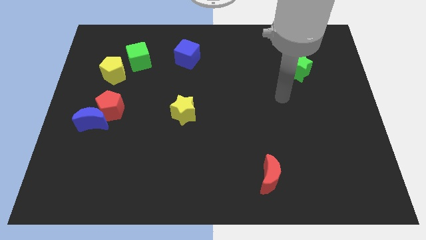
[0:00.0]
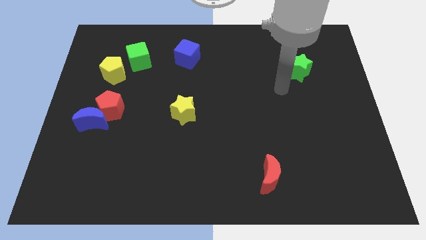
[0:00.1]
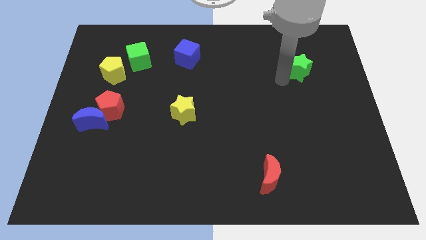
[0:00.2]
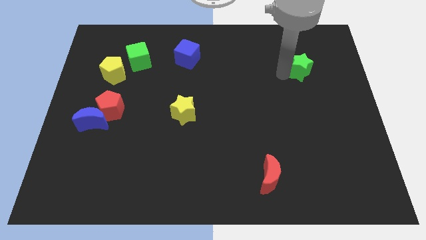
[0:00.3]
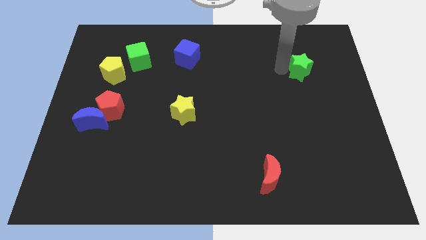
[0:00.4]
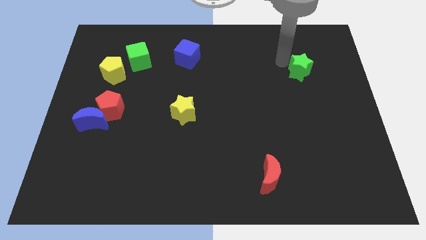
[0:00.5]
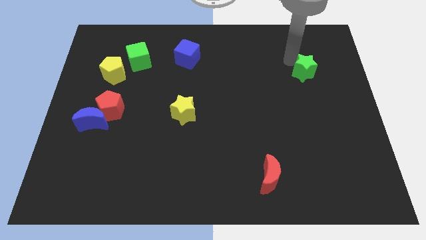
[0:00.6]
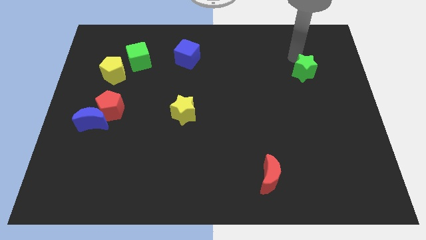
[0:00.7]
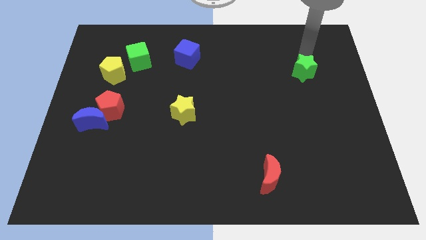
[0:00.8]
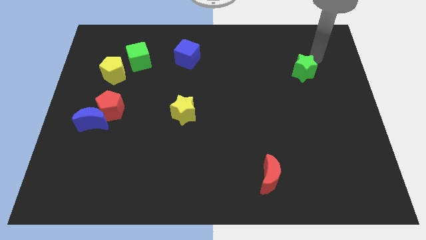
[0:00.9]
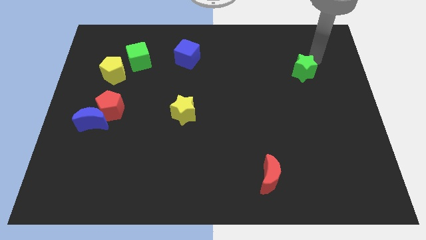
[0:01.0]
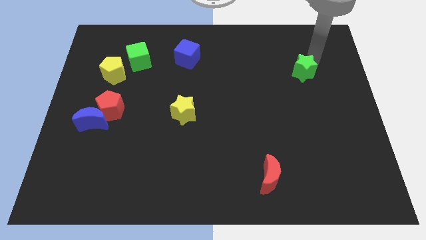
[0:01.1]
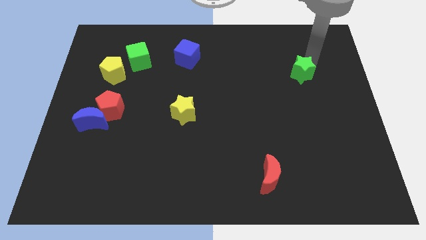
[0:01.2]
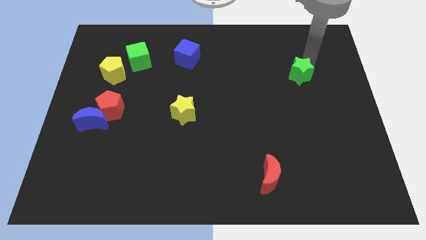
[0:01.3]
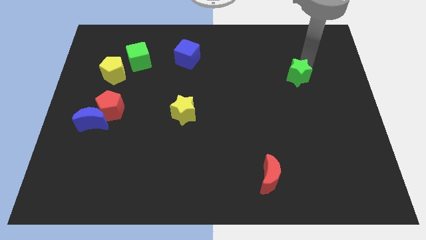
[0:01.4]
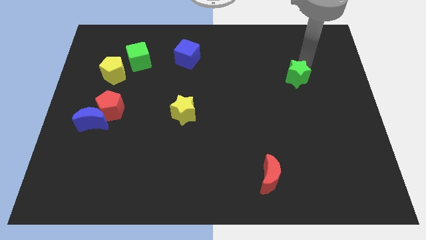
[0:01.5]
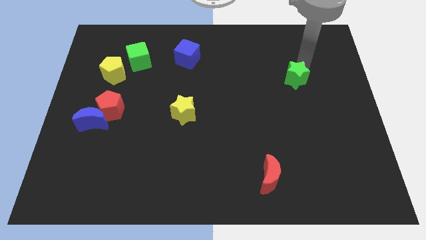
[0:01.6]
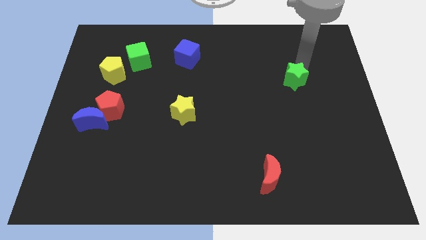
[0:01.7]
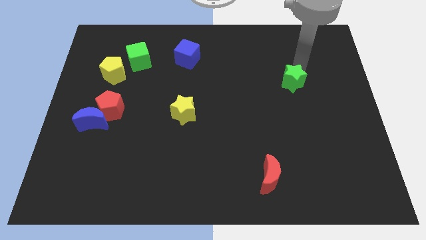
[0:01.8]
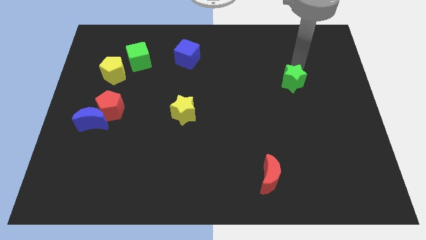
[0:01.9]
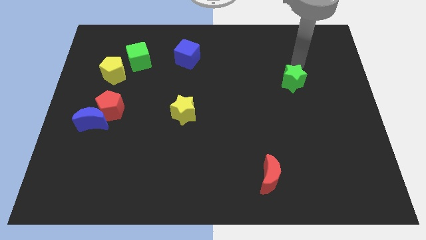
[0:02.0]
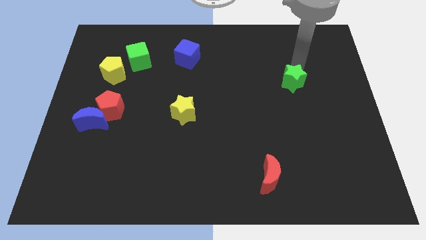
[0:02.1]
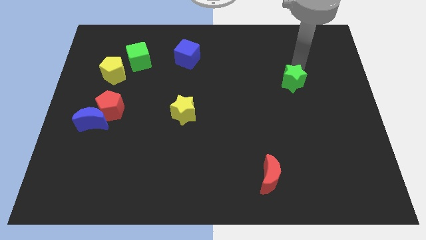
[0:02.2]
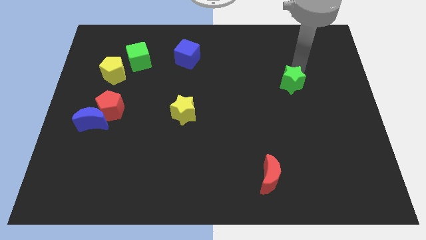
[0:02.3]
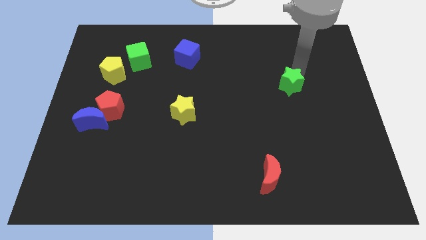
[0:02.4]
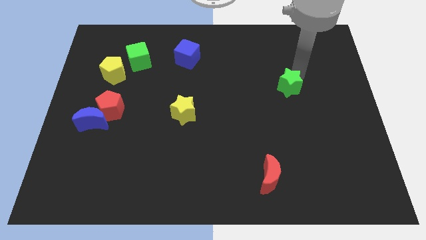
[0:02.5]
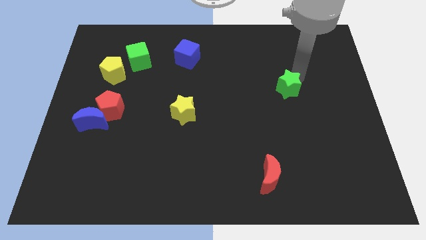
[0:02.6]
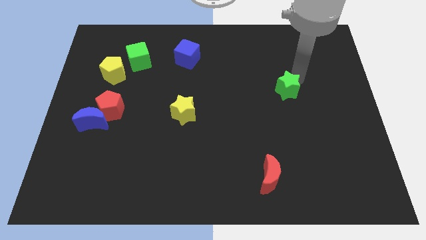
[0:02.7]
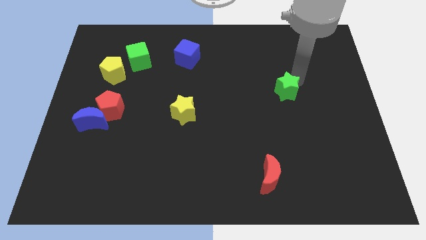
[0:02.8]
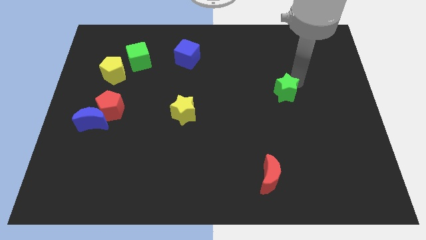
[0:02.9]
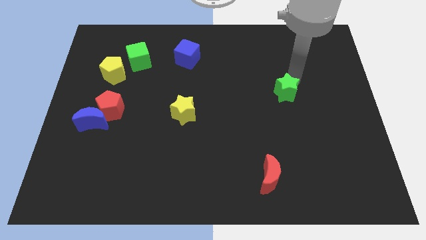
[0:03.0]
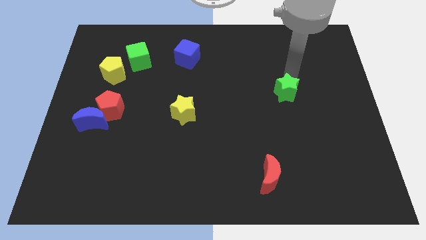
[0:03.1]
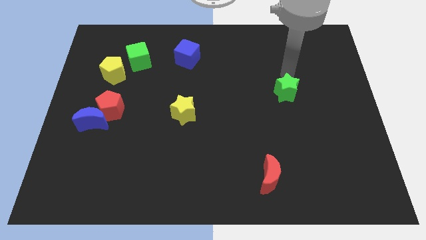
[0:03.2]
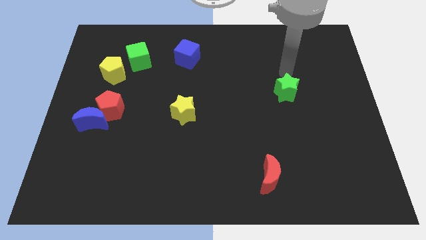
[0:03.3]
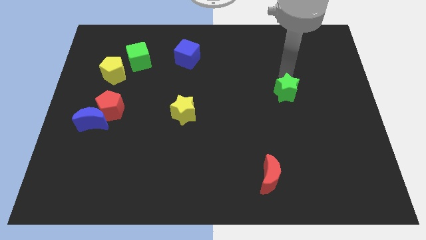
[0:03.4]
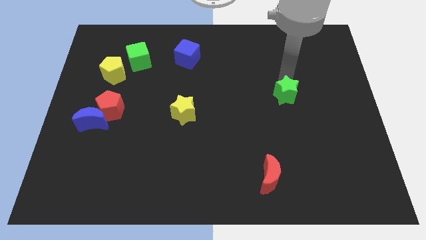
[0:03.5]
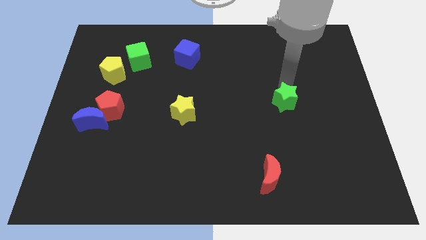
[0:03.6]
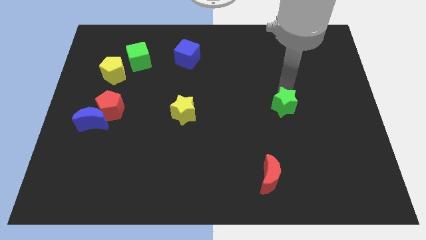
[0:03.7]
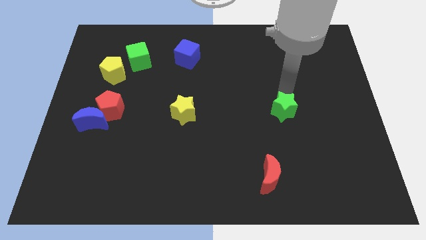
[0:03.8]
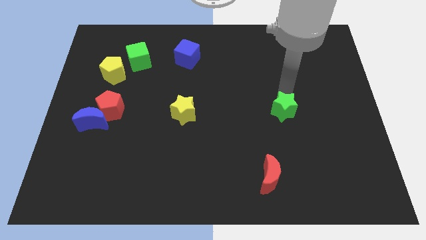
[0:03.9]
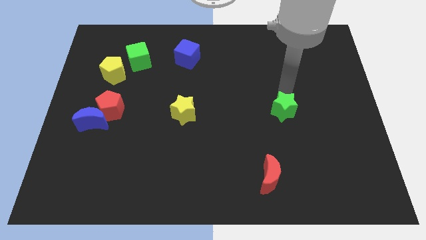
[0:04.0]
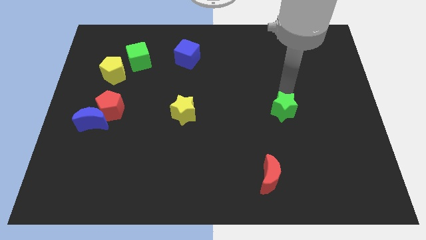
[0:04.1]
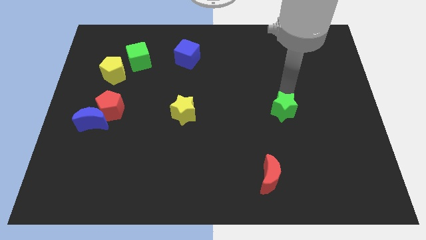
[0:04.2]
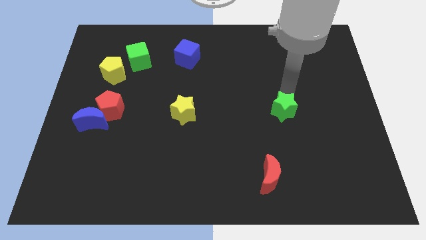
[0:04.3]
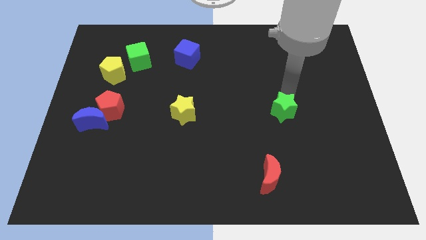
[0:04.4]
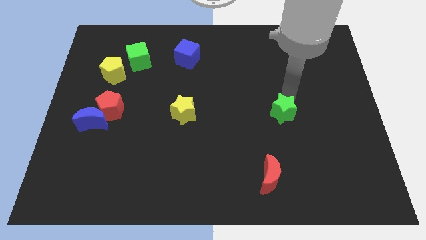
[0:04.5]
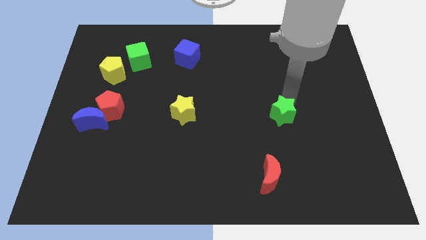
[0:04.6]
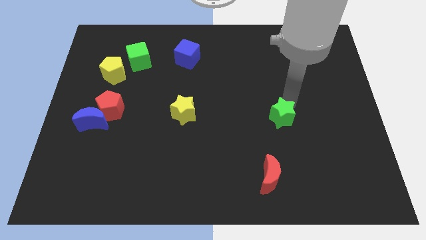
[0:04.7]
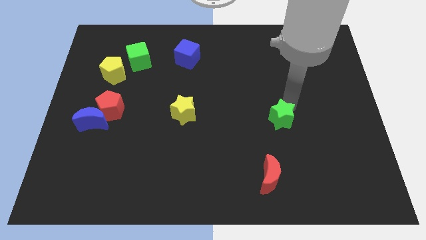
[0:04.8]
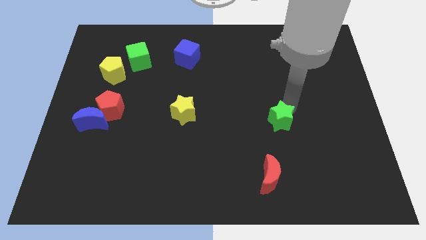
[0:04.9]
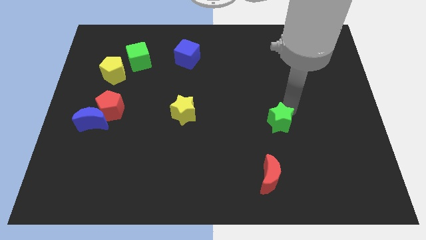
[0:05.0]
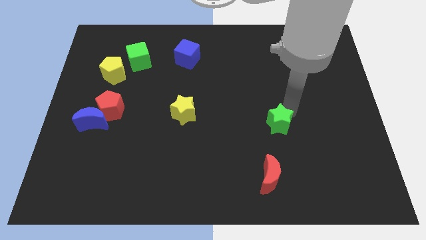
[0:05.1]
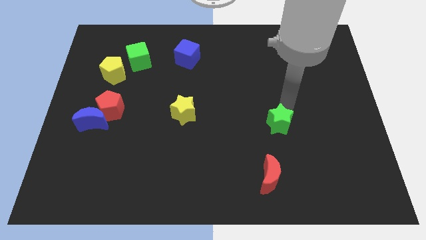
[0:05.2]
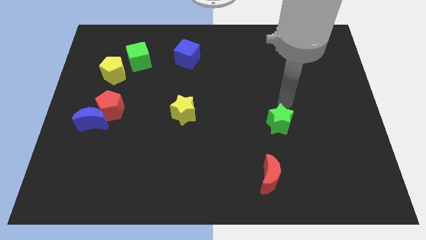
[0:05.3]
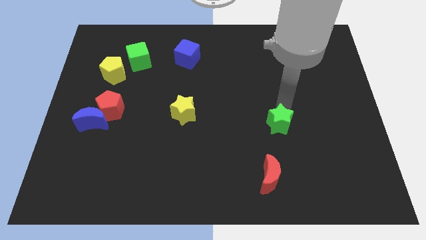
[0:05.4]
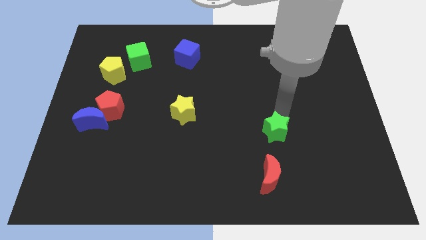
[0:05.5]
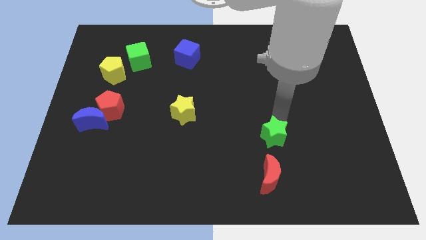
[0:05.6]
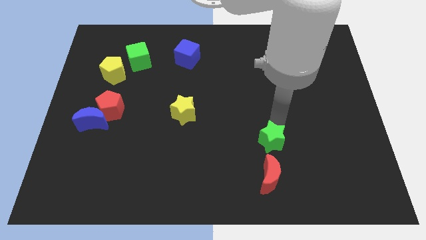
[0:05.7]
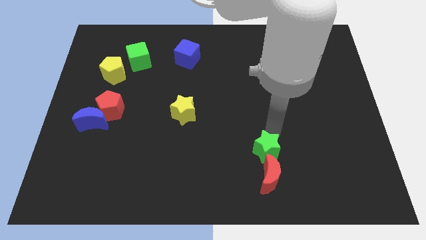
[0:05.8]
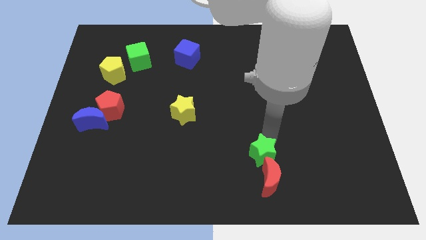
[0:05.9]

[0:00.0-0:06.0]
put the green star next to the red moon

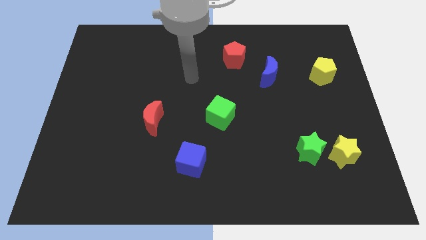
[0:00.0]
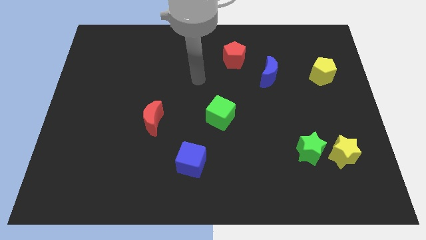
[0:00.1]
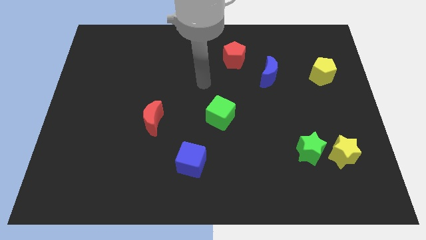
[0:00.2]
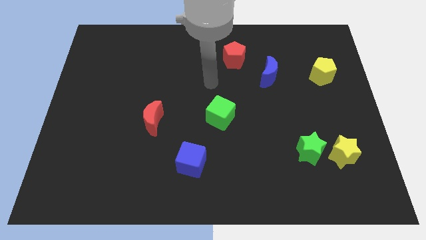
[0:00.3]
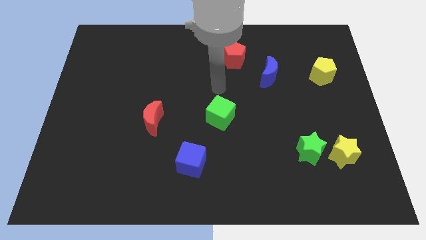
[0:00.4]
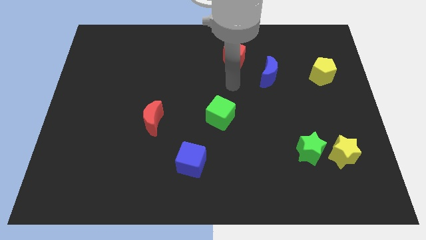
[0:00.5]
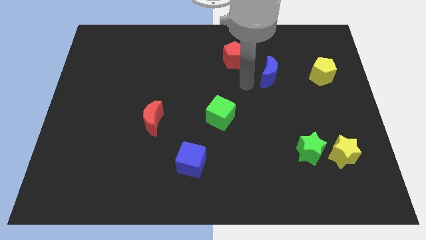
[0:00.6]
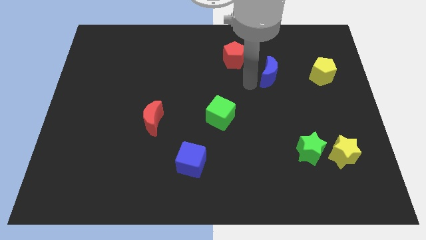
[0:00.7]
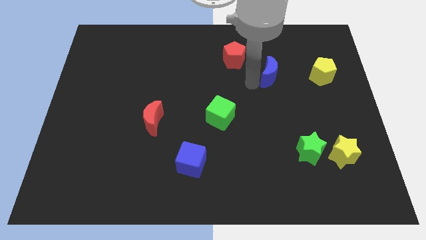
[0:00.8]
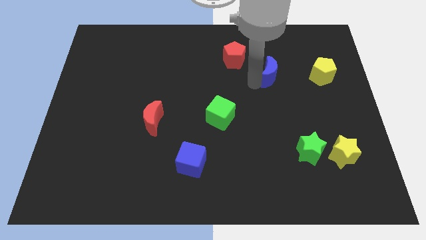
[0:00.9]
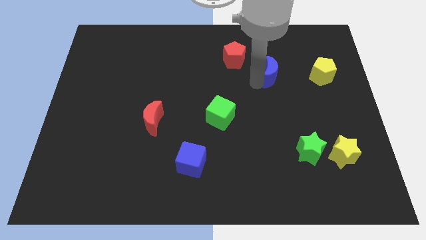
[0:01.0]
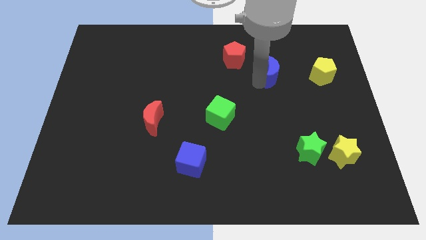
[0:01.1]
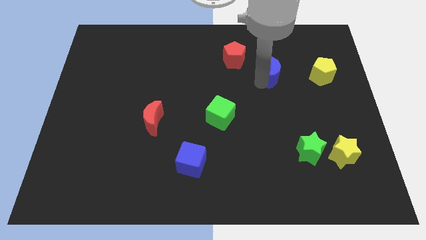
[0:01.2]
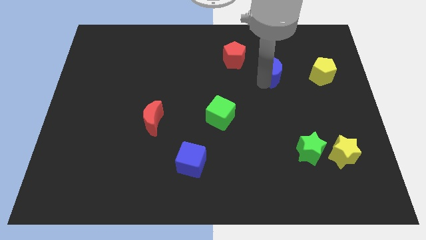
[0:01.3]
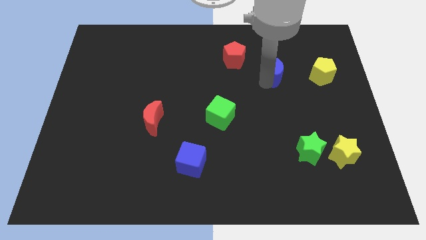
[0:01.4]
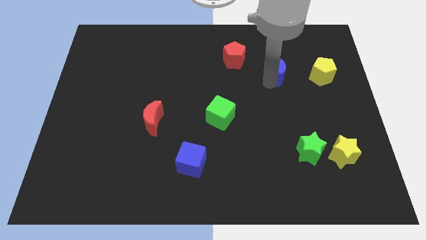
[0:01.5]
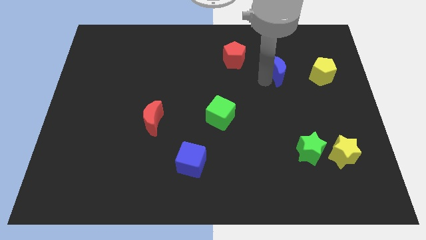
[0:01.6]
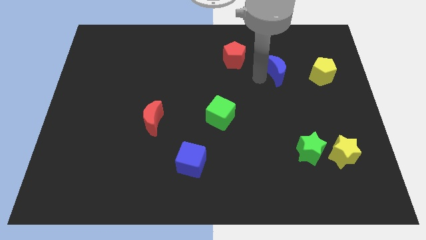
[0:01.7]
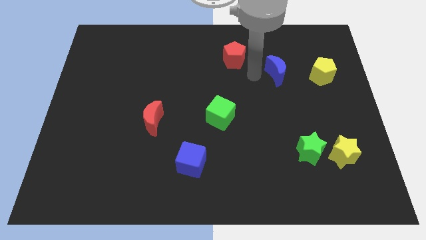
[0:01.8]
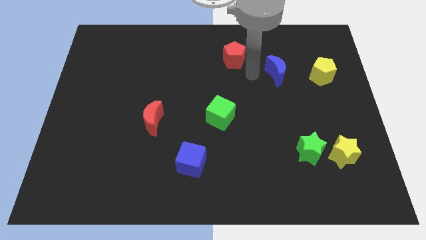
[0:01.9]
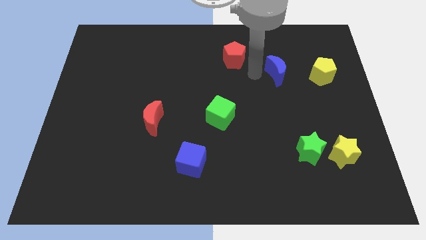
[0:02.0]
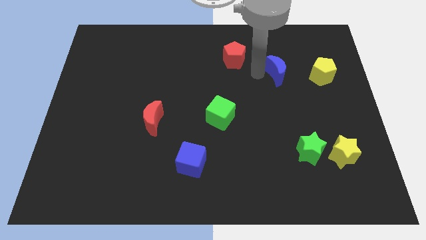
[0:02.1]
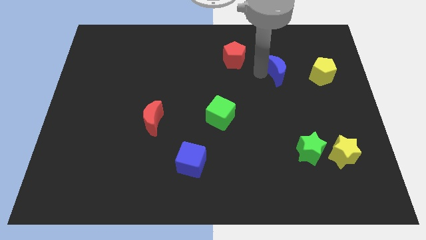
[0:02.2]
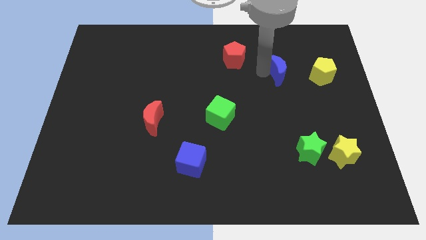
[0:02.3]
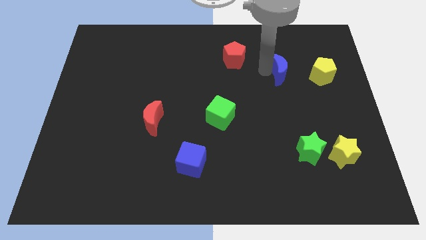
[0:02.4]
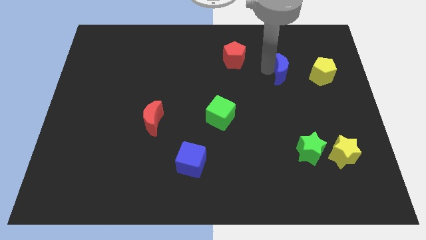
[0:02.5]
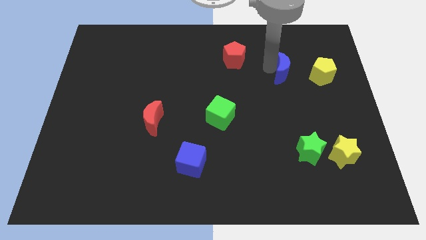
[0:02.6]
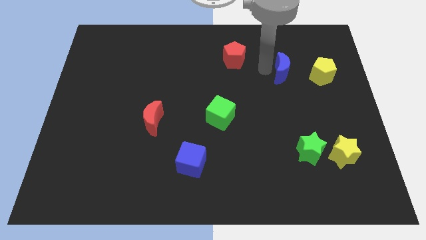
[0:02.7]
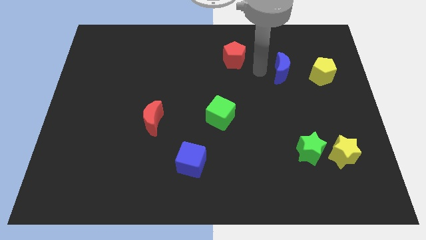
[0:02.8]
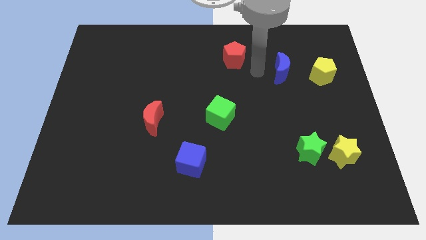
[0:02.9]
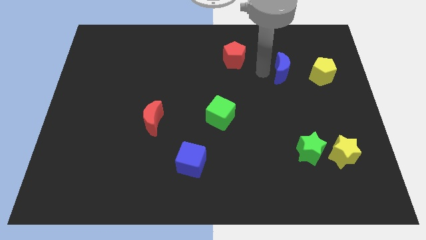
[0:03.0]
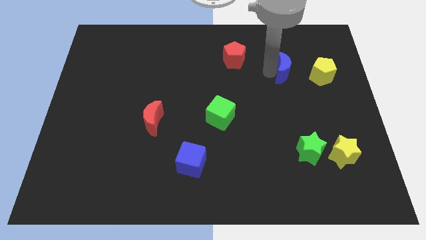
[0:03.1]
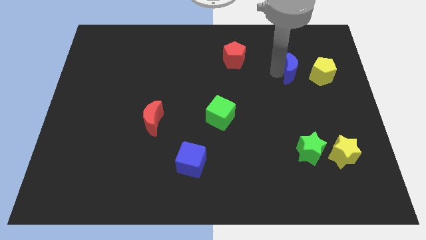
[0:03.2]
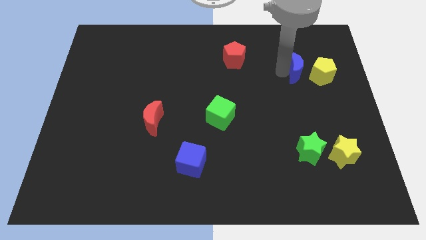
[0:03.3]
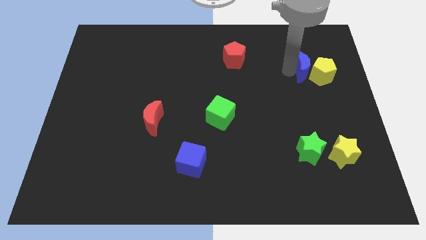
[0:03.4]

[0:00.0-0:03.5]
put the blue moon close to the yellow pentagon
